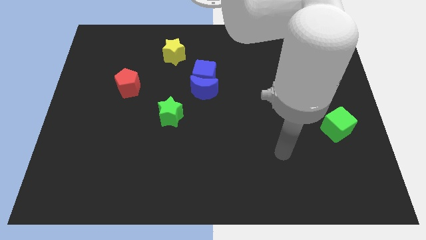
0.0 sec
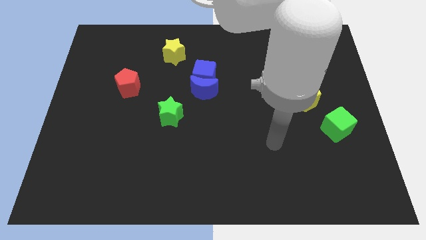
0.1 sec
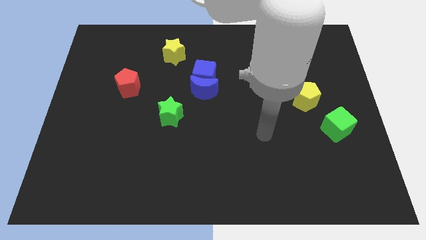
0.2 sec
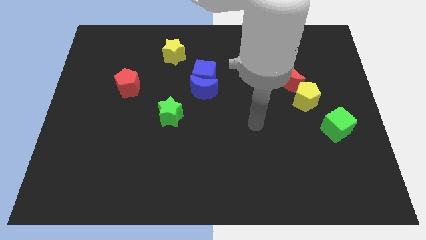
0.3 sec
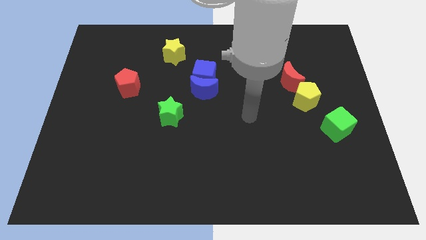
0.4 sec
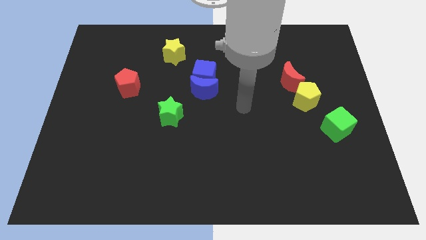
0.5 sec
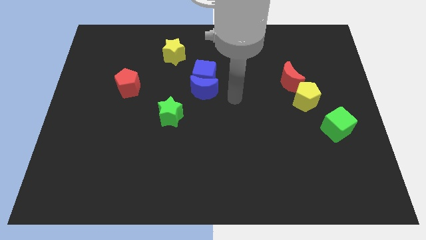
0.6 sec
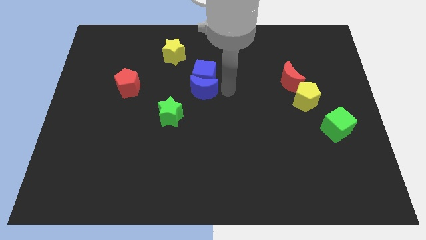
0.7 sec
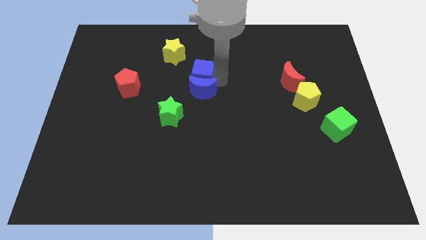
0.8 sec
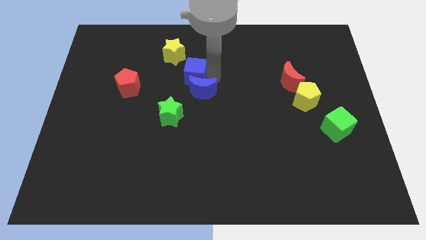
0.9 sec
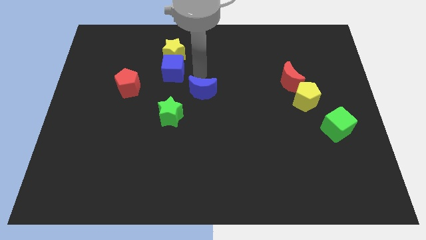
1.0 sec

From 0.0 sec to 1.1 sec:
separate the blue moon from the blue cube

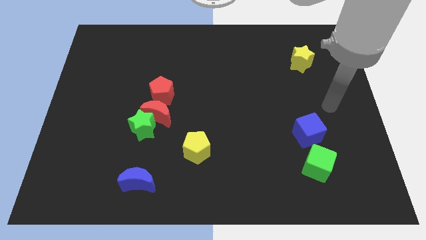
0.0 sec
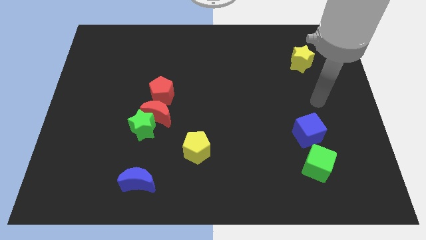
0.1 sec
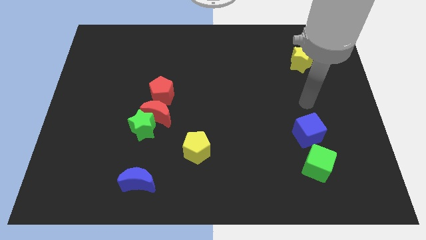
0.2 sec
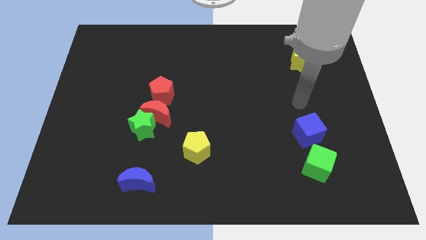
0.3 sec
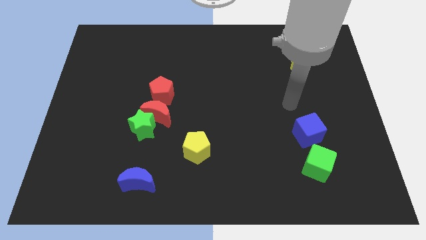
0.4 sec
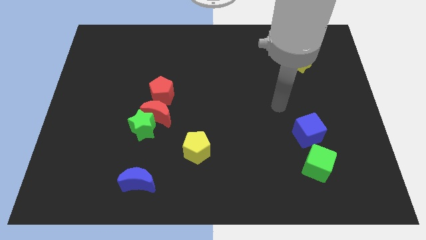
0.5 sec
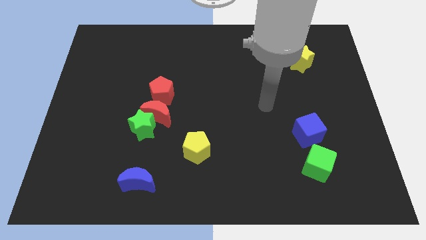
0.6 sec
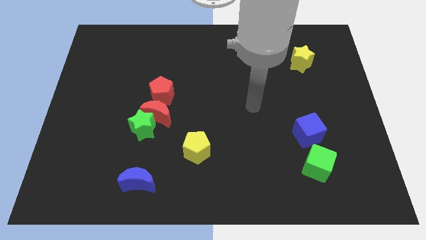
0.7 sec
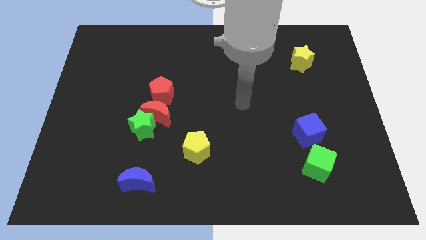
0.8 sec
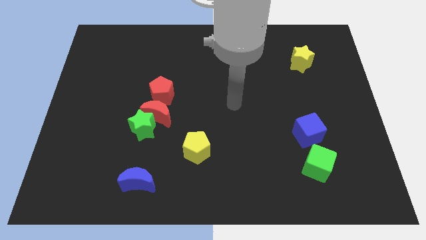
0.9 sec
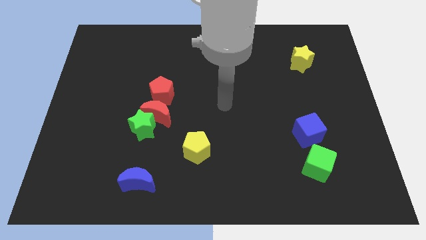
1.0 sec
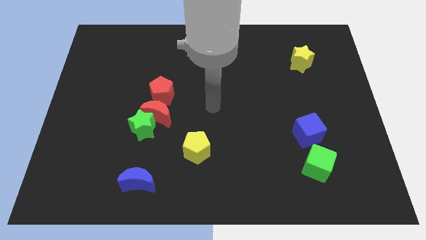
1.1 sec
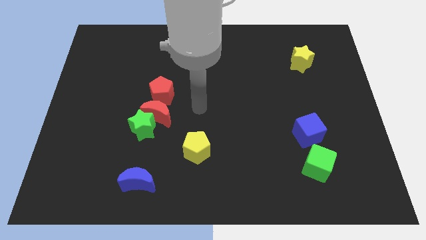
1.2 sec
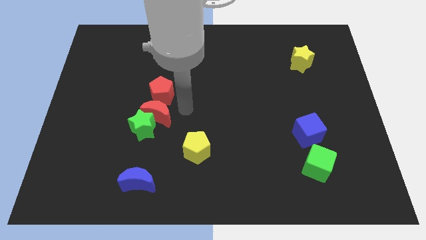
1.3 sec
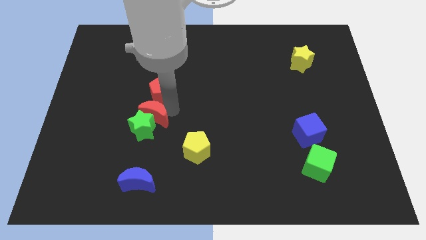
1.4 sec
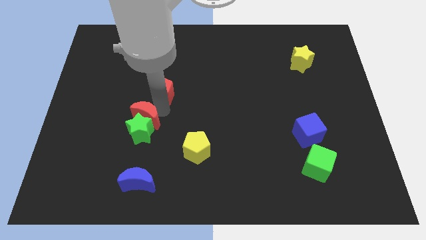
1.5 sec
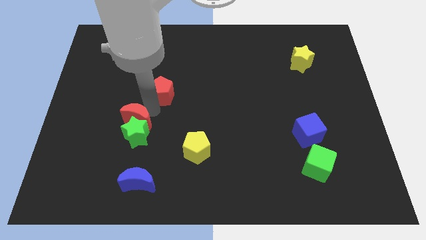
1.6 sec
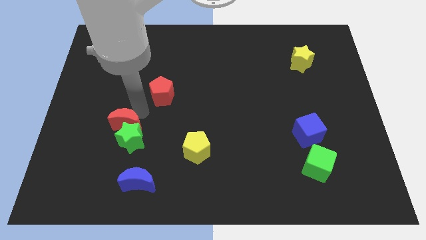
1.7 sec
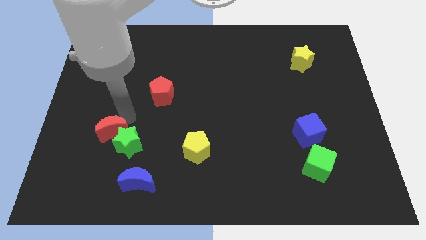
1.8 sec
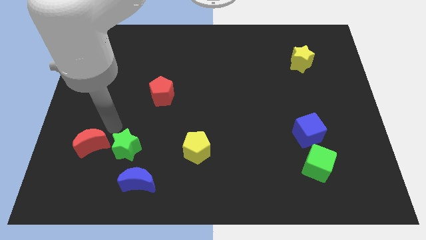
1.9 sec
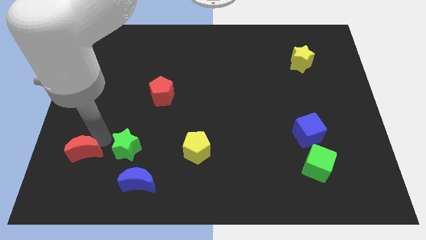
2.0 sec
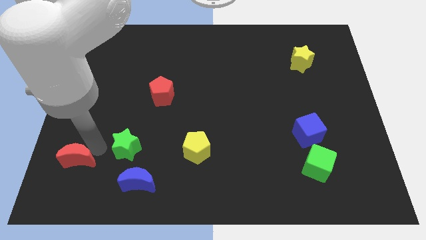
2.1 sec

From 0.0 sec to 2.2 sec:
separate the green star from the red moon

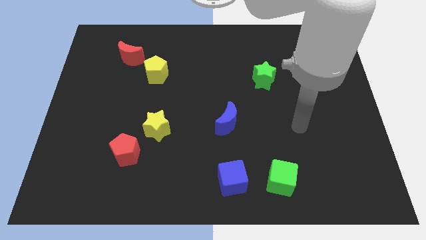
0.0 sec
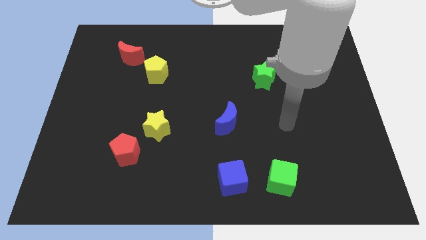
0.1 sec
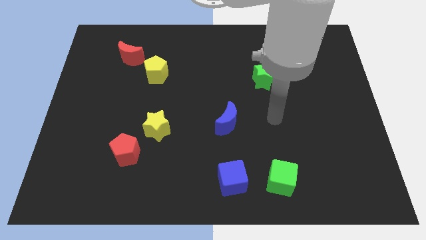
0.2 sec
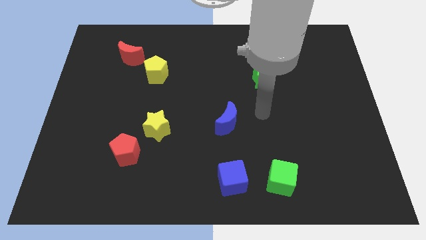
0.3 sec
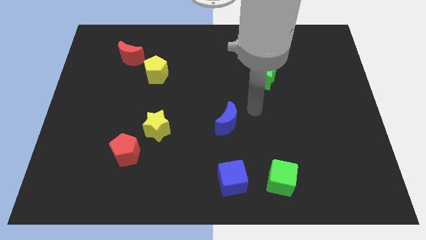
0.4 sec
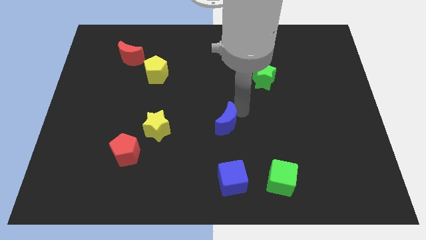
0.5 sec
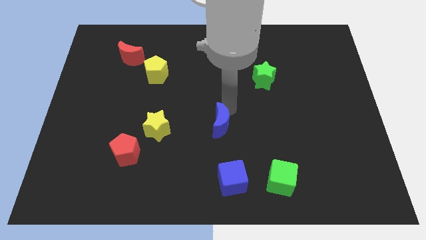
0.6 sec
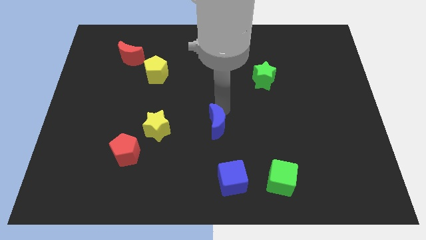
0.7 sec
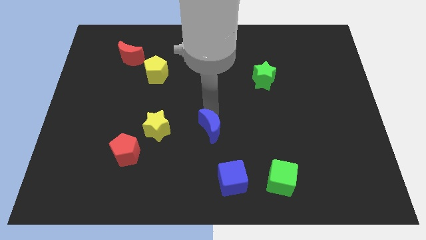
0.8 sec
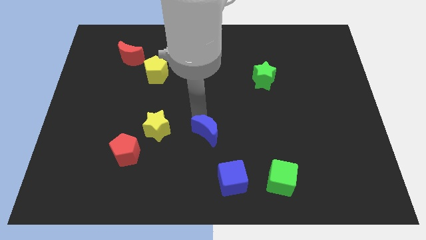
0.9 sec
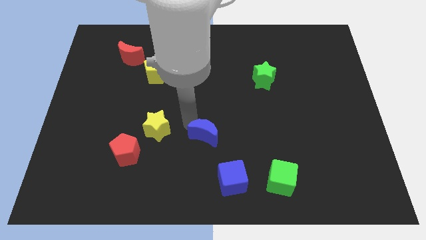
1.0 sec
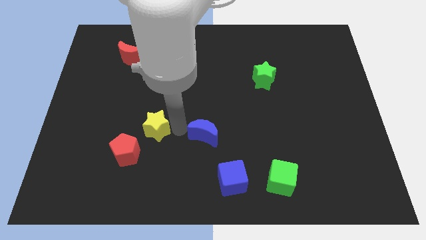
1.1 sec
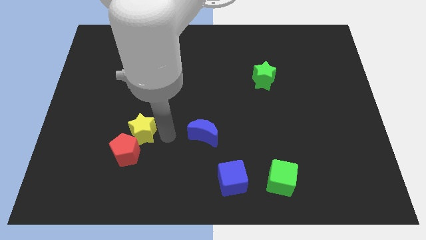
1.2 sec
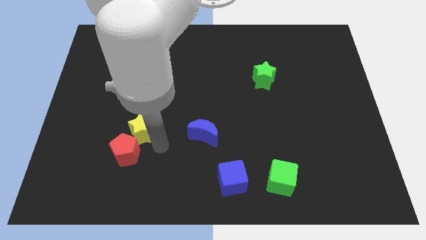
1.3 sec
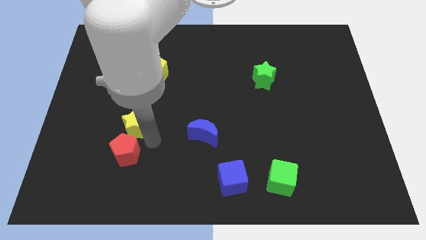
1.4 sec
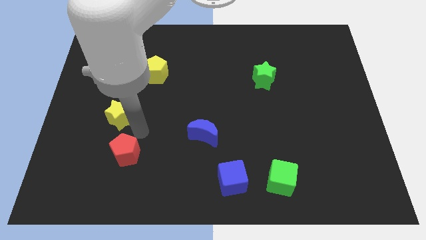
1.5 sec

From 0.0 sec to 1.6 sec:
move the red pentagon away from the yellow star

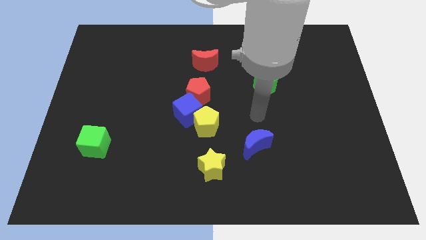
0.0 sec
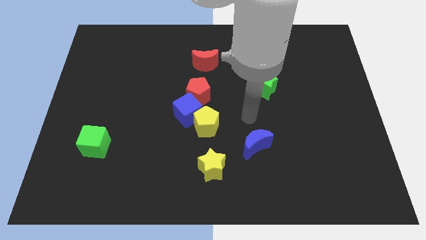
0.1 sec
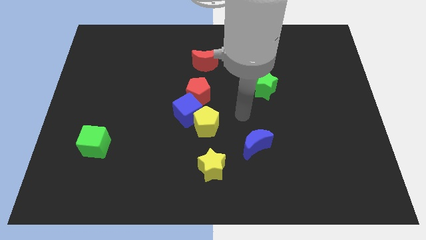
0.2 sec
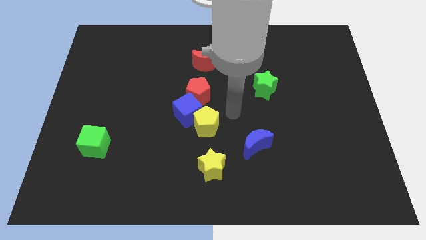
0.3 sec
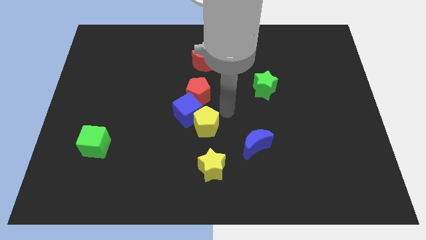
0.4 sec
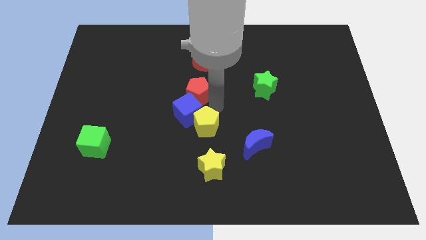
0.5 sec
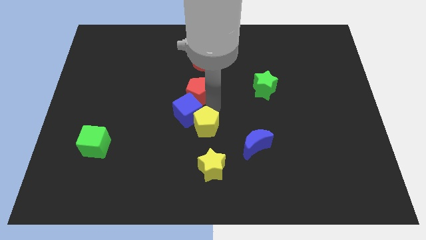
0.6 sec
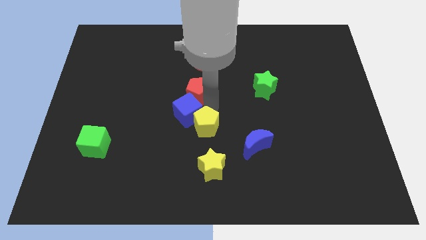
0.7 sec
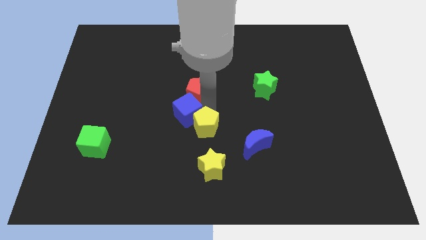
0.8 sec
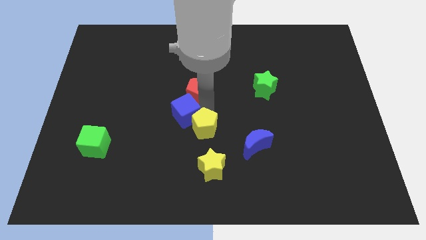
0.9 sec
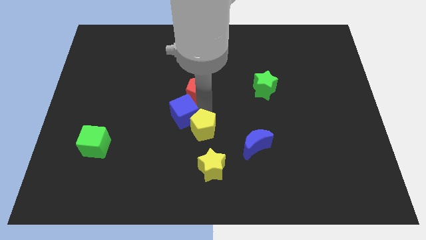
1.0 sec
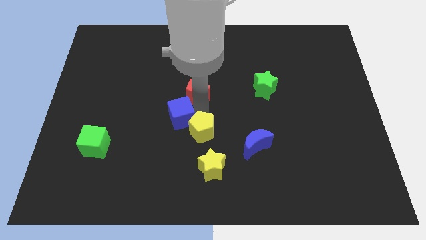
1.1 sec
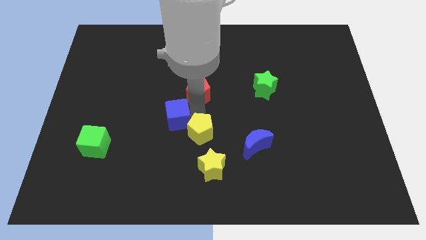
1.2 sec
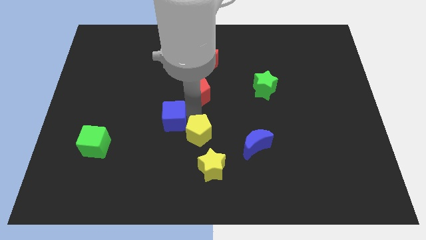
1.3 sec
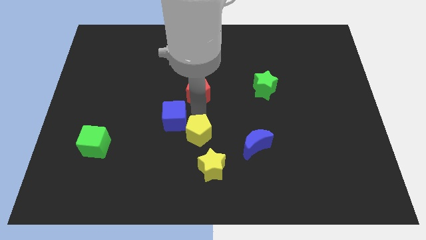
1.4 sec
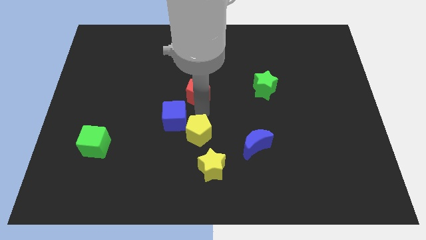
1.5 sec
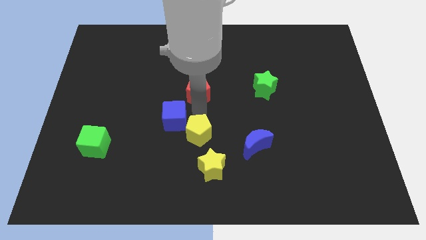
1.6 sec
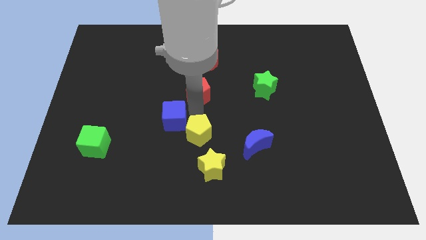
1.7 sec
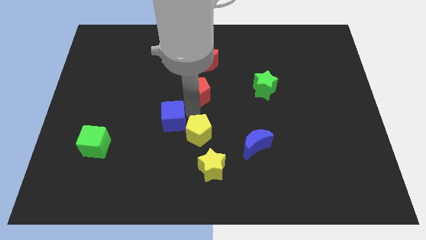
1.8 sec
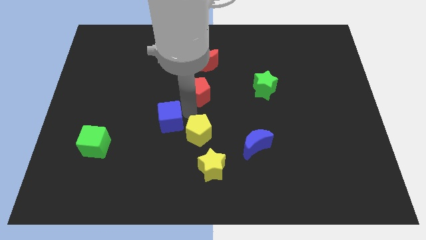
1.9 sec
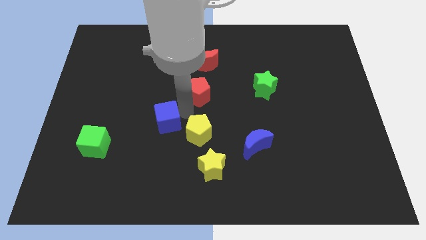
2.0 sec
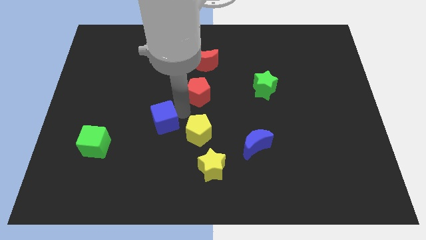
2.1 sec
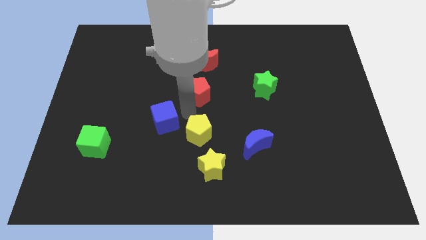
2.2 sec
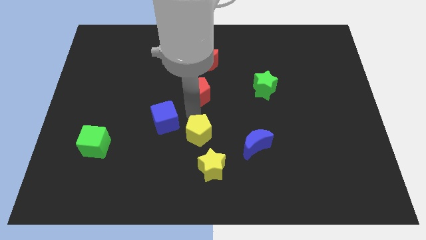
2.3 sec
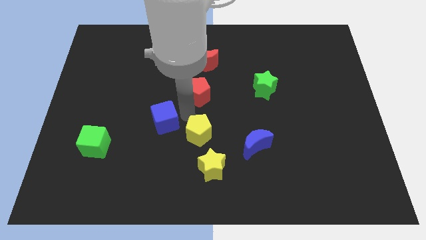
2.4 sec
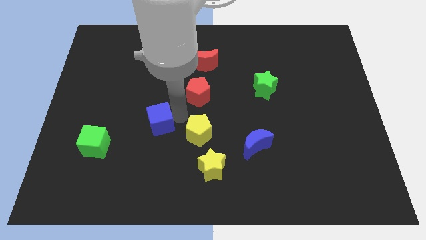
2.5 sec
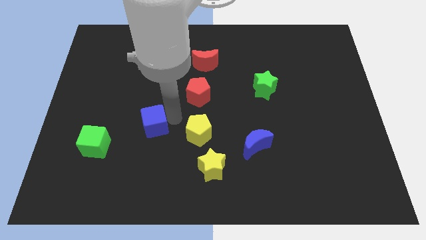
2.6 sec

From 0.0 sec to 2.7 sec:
separate the blue cube from the yellow pentagon and red pentagon

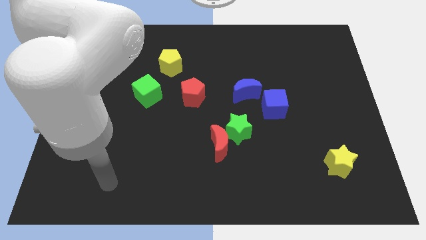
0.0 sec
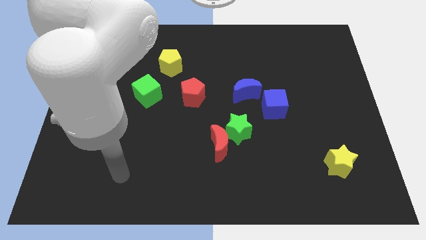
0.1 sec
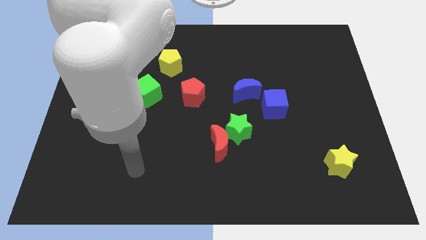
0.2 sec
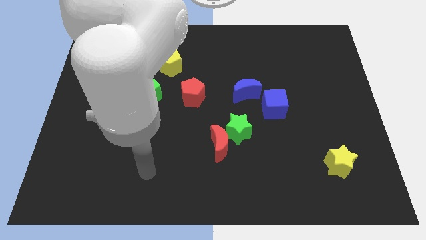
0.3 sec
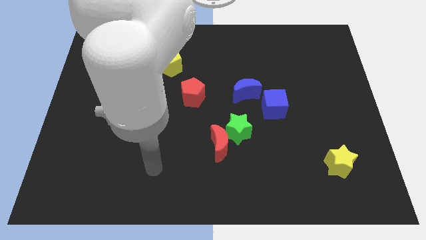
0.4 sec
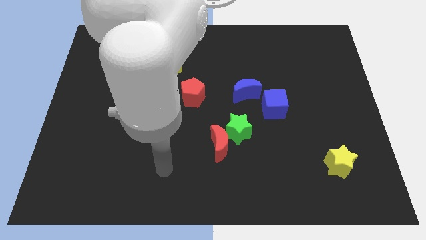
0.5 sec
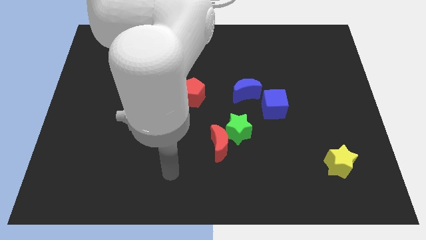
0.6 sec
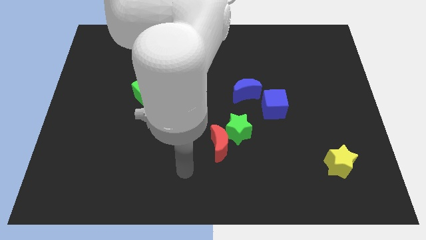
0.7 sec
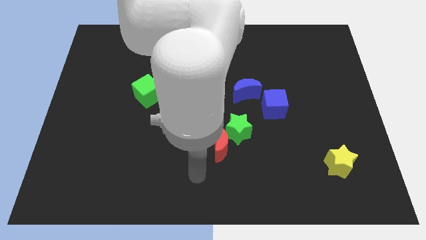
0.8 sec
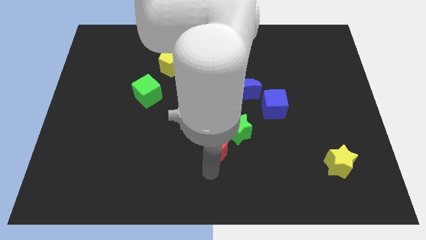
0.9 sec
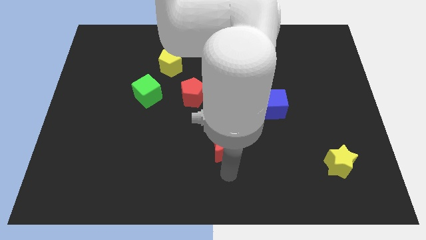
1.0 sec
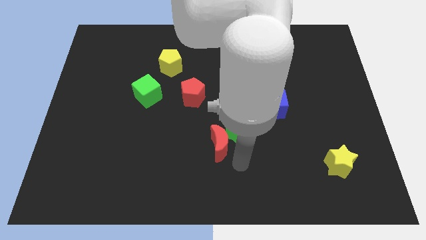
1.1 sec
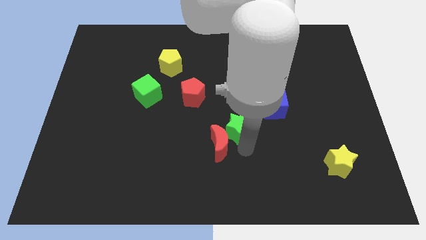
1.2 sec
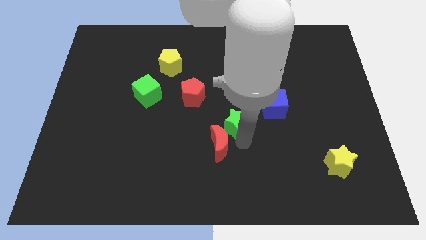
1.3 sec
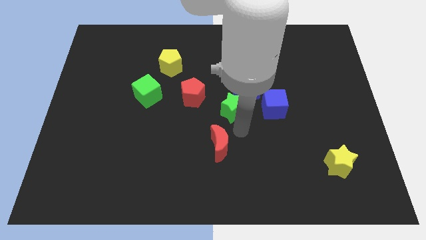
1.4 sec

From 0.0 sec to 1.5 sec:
separate the red moon from the green star

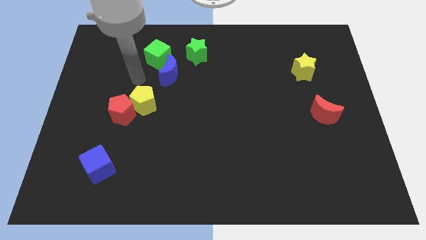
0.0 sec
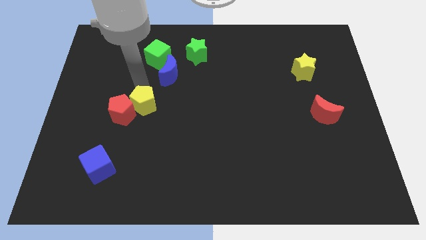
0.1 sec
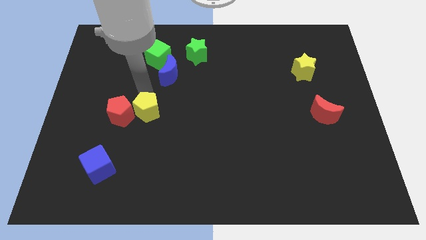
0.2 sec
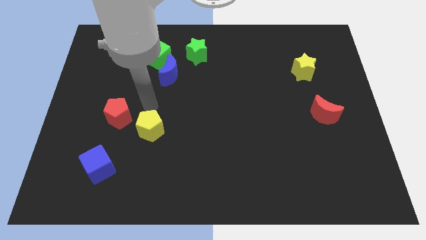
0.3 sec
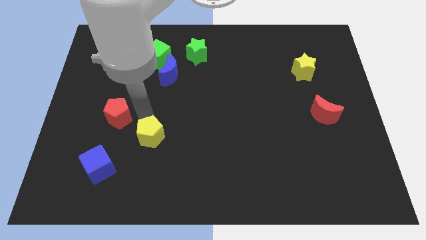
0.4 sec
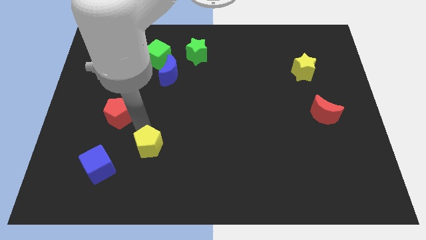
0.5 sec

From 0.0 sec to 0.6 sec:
move the red pentagon away from the yellow pentagon
